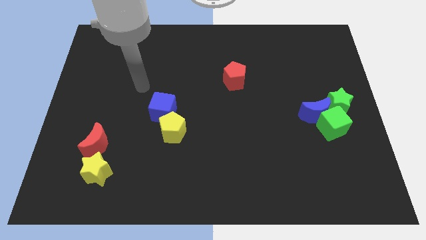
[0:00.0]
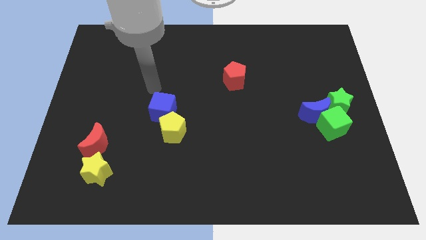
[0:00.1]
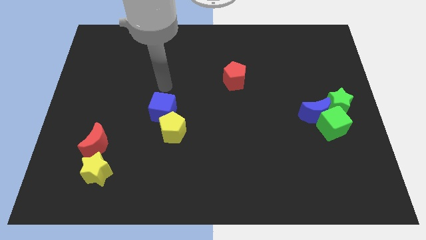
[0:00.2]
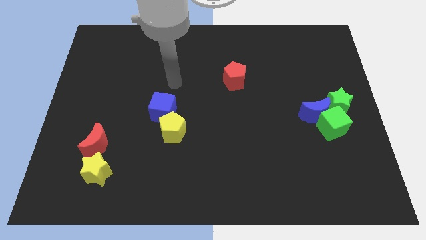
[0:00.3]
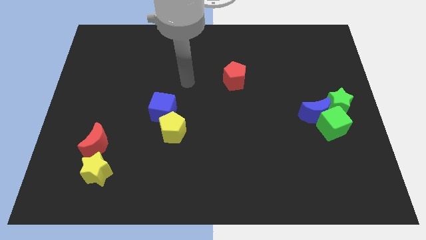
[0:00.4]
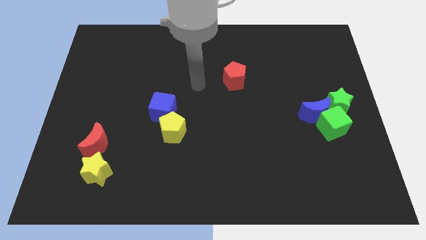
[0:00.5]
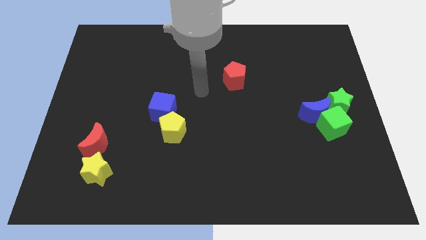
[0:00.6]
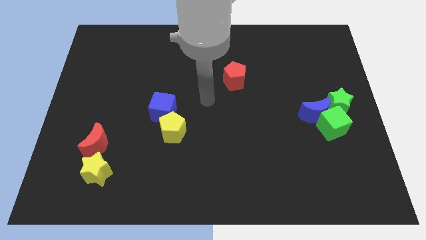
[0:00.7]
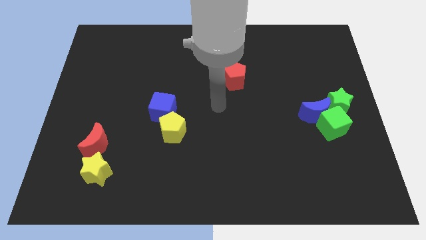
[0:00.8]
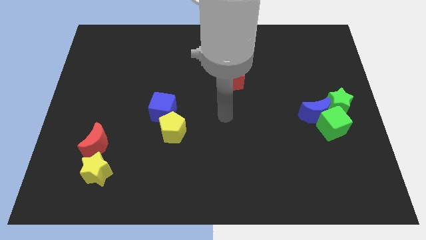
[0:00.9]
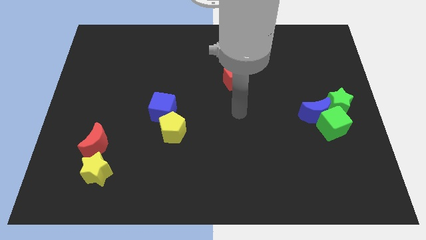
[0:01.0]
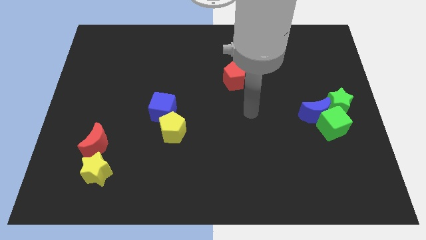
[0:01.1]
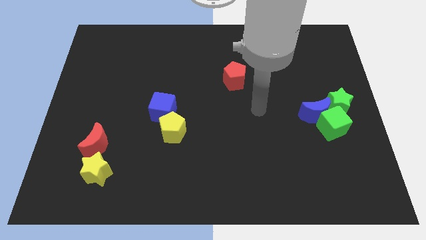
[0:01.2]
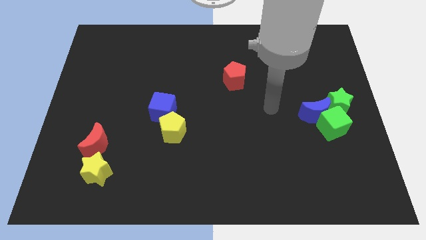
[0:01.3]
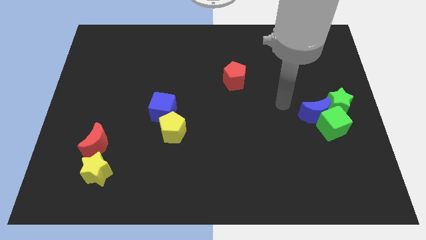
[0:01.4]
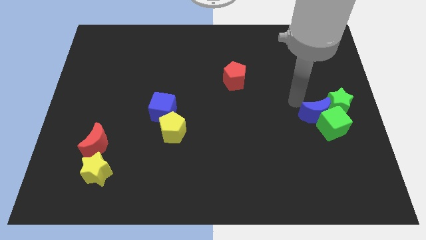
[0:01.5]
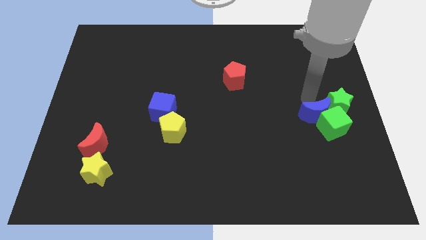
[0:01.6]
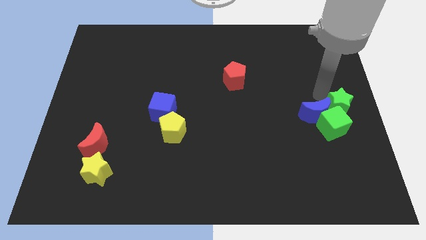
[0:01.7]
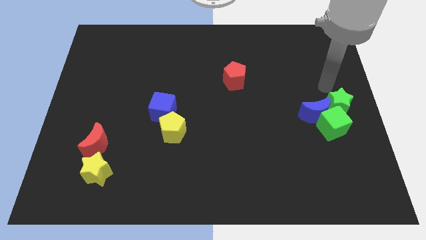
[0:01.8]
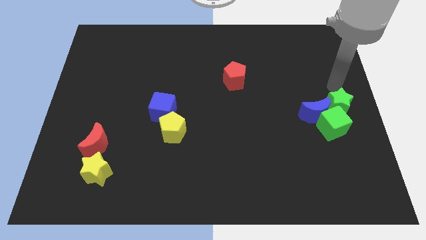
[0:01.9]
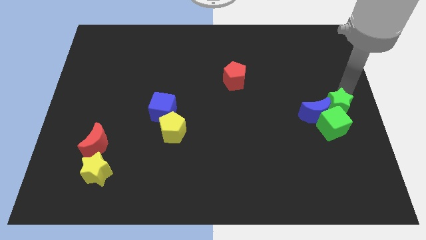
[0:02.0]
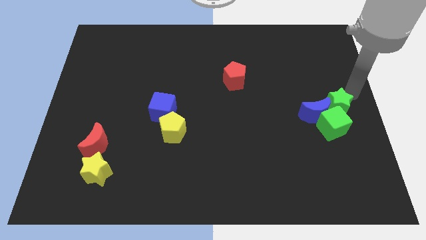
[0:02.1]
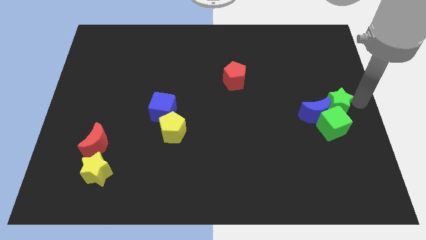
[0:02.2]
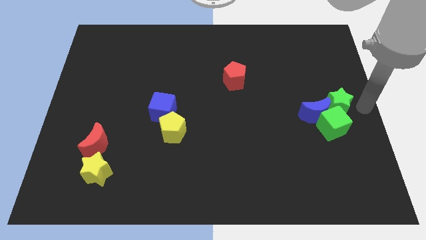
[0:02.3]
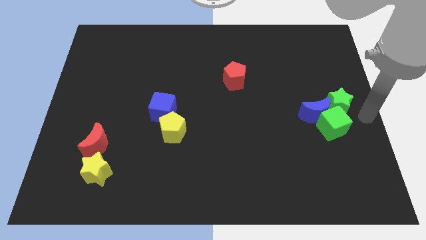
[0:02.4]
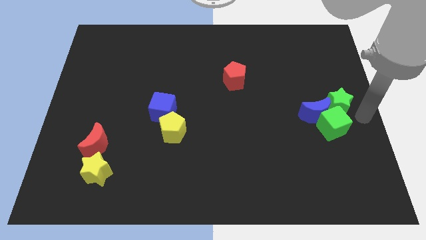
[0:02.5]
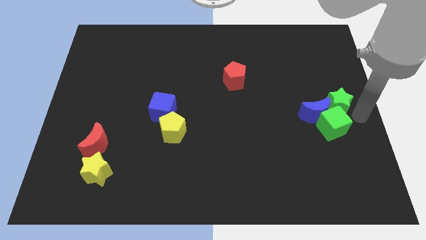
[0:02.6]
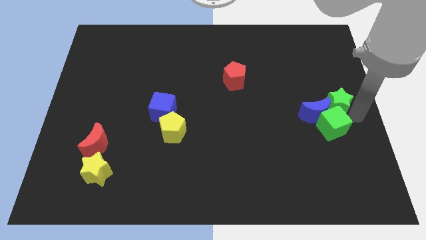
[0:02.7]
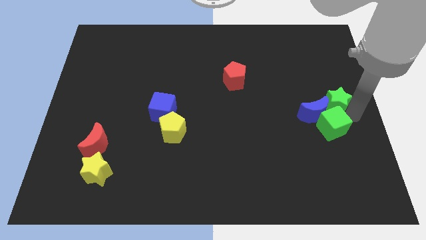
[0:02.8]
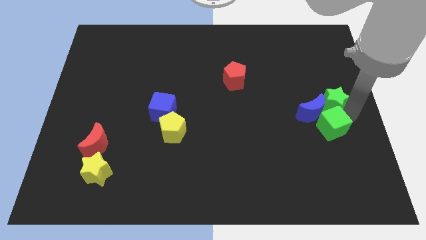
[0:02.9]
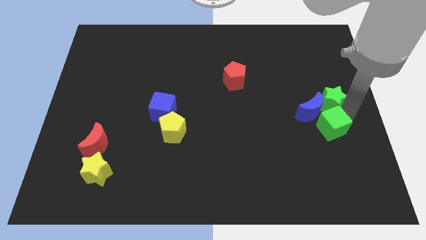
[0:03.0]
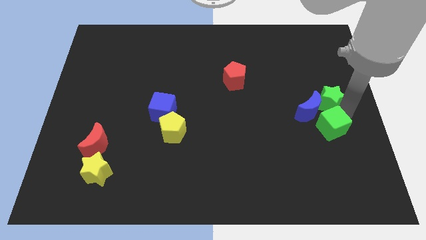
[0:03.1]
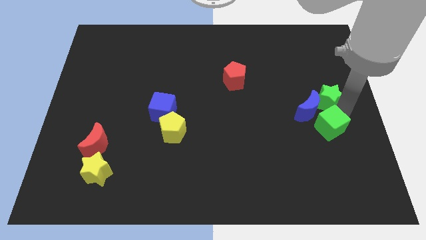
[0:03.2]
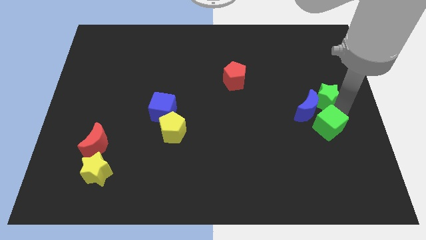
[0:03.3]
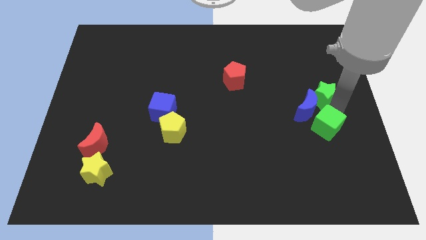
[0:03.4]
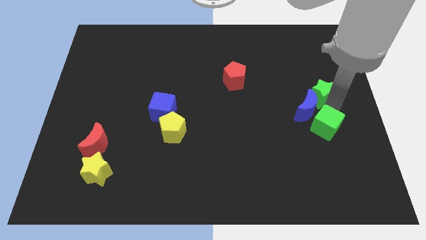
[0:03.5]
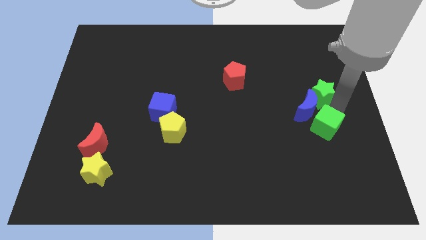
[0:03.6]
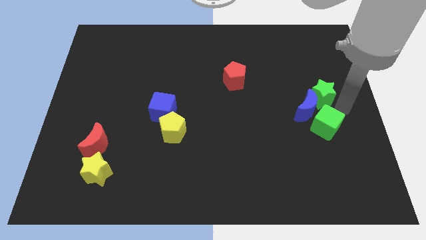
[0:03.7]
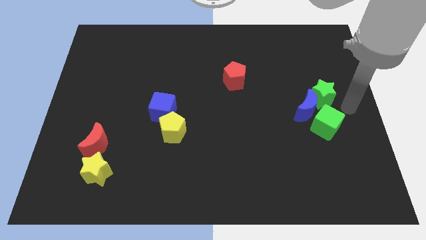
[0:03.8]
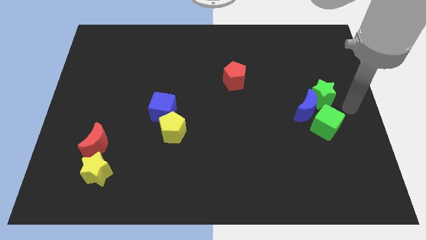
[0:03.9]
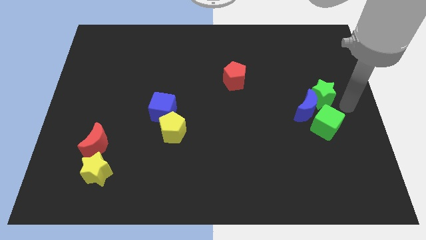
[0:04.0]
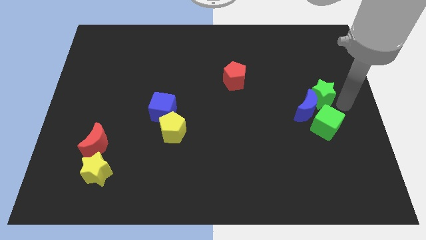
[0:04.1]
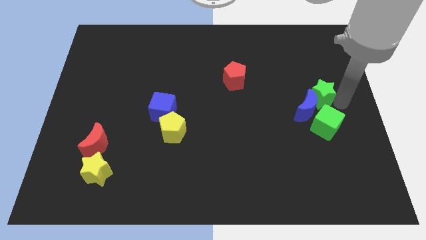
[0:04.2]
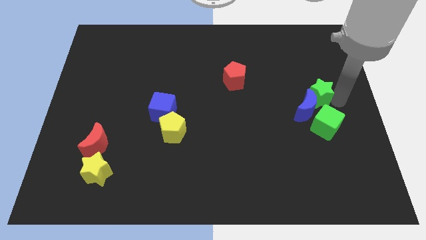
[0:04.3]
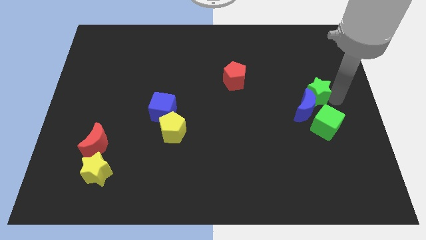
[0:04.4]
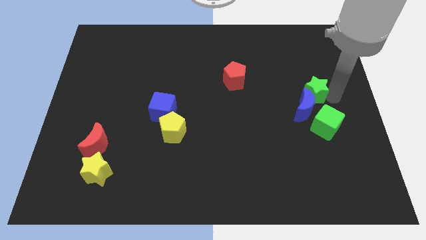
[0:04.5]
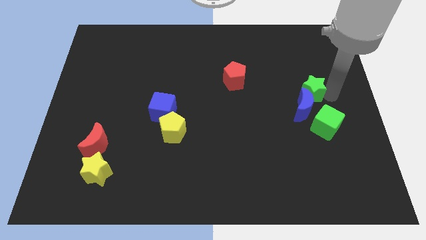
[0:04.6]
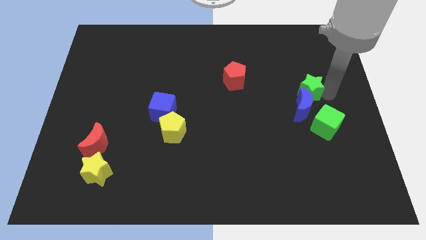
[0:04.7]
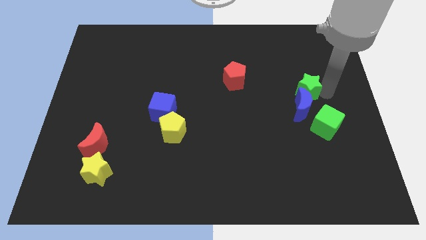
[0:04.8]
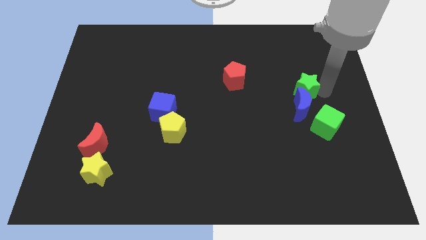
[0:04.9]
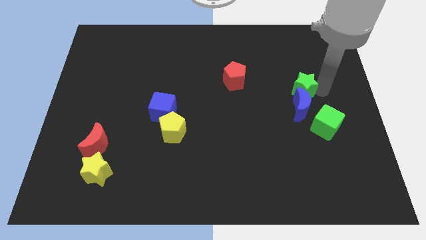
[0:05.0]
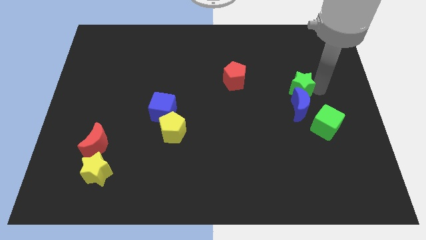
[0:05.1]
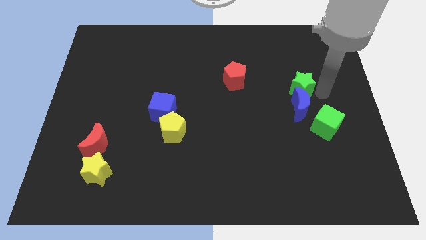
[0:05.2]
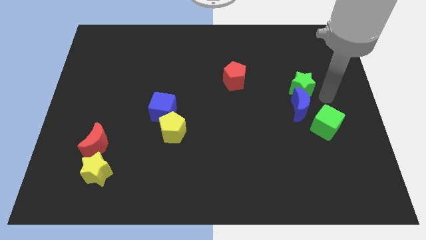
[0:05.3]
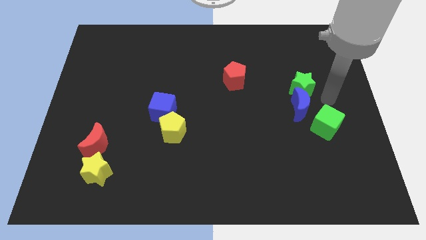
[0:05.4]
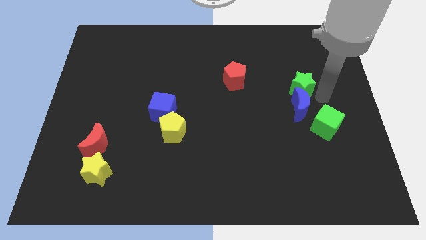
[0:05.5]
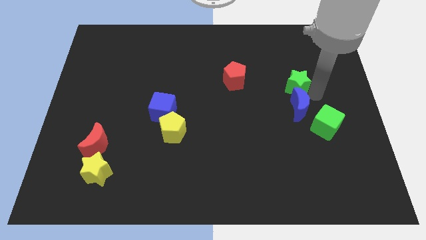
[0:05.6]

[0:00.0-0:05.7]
move the green star right of the red pentagon

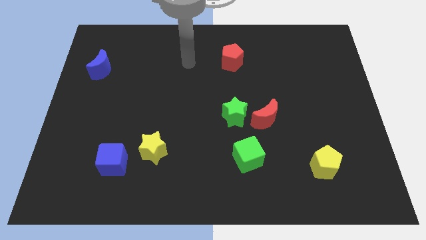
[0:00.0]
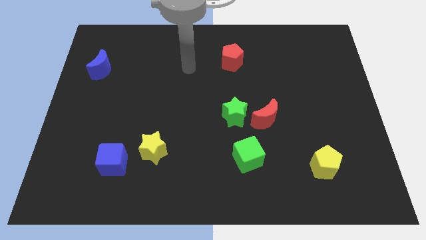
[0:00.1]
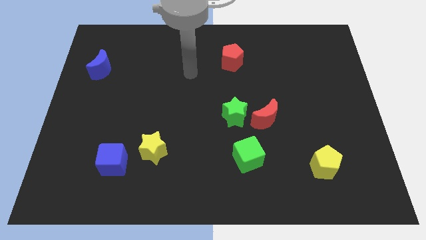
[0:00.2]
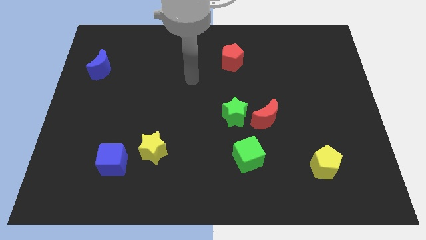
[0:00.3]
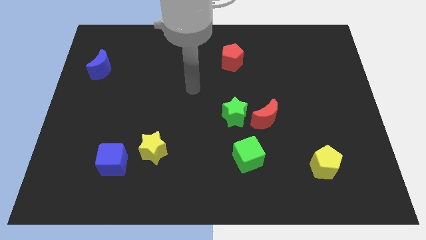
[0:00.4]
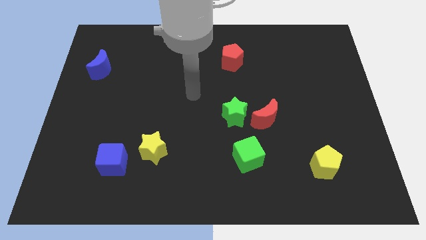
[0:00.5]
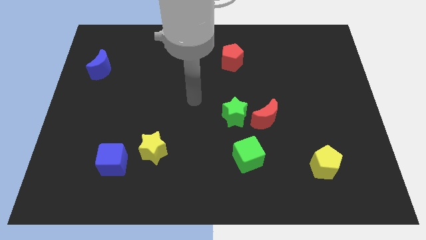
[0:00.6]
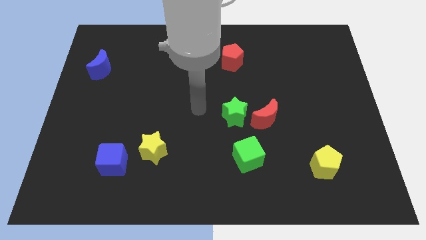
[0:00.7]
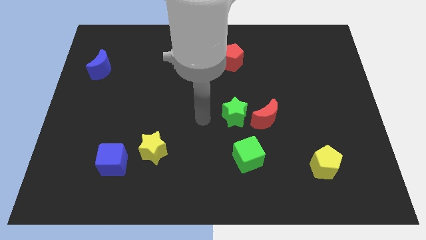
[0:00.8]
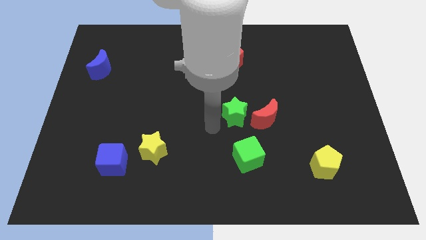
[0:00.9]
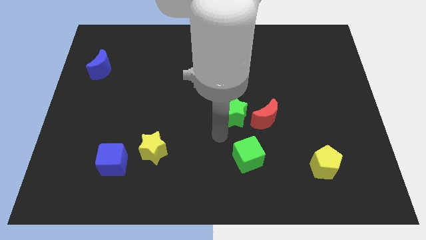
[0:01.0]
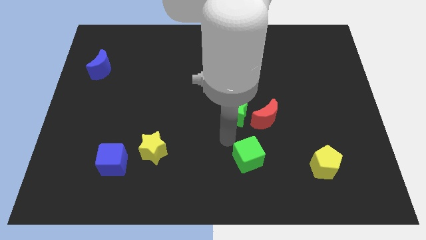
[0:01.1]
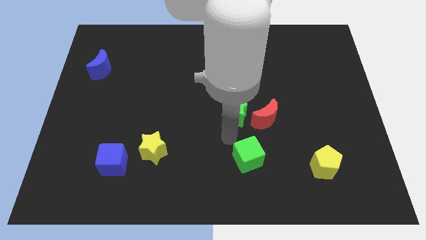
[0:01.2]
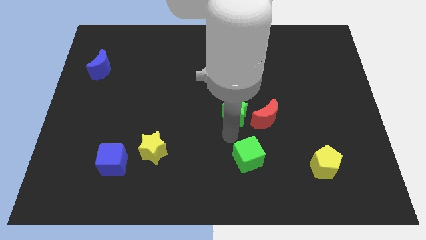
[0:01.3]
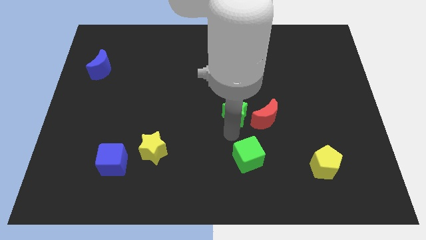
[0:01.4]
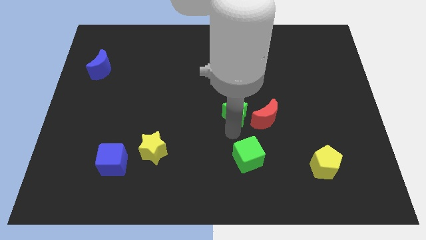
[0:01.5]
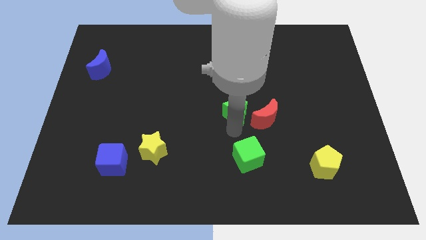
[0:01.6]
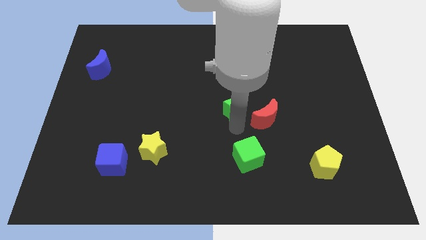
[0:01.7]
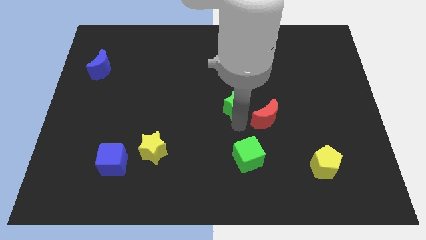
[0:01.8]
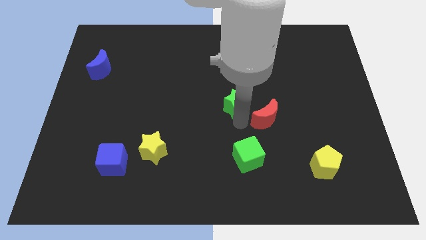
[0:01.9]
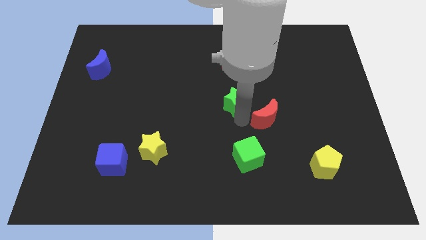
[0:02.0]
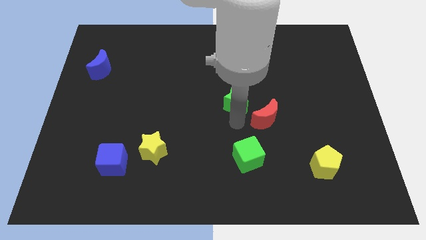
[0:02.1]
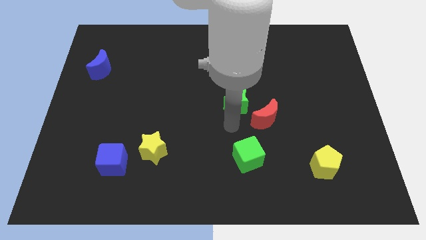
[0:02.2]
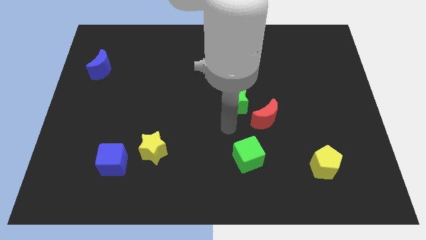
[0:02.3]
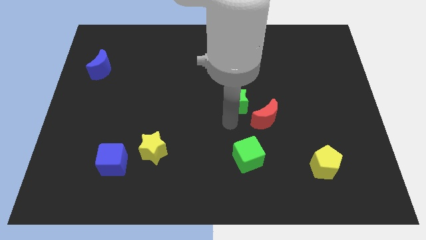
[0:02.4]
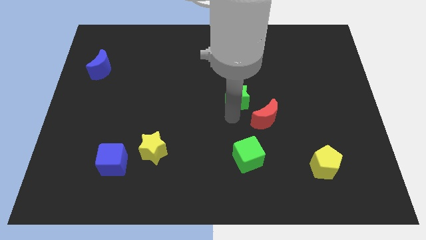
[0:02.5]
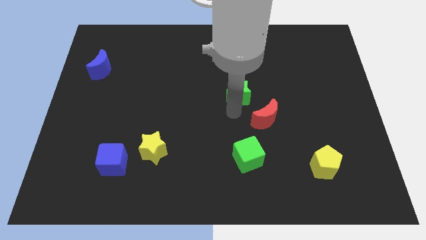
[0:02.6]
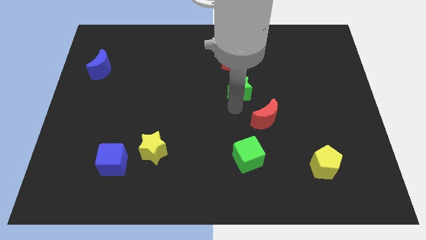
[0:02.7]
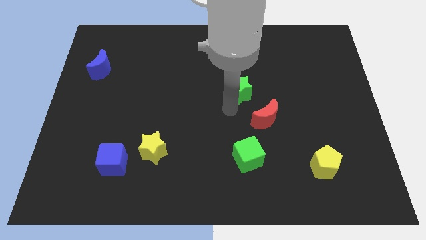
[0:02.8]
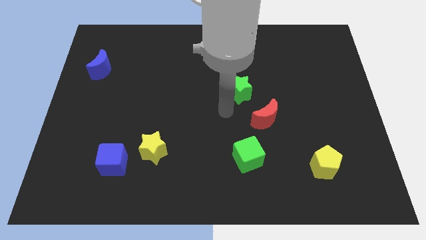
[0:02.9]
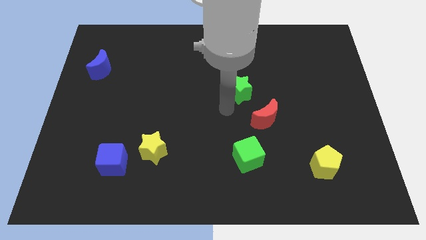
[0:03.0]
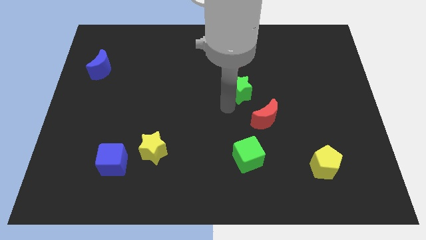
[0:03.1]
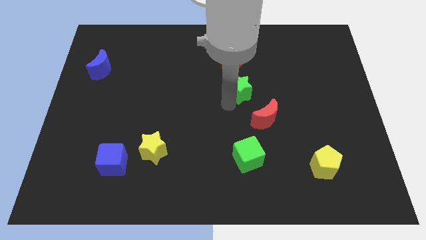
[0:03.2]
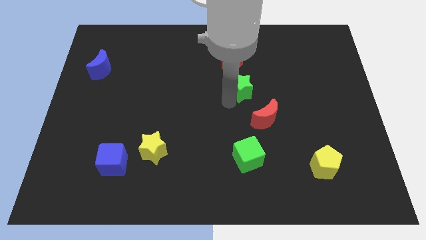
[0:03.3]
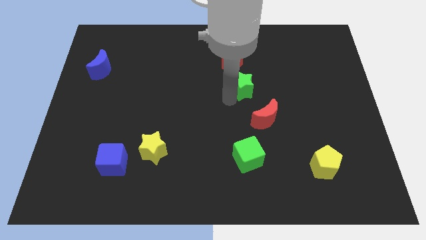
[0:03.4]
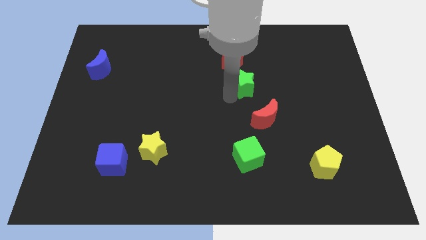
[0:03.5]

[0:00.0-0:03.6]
push the green star to the bottom right of the red pentagon
